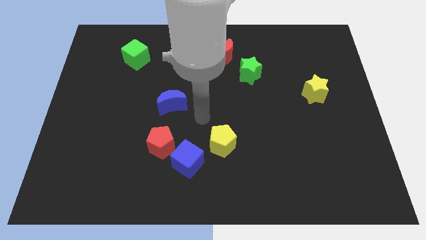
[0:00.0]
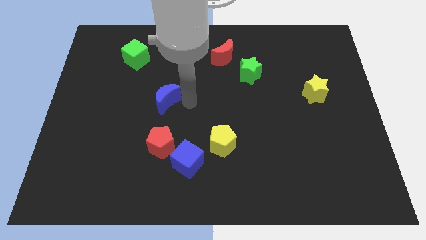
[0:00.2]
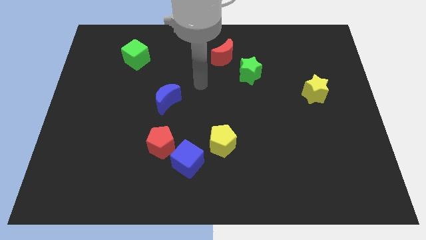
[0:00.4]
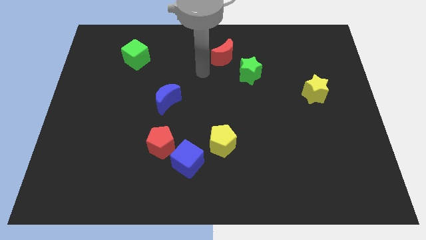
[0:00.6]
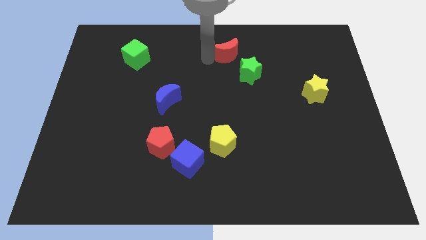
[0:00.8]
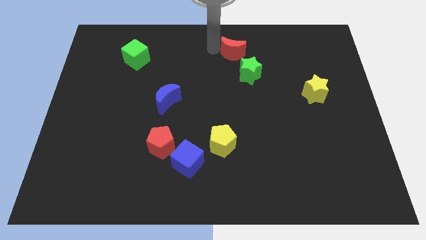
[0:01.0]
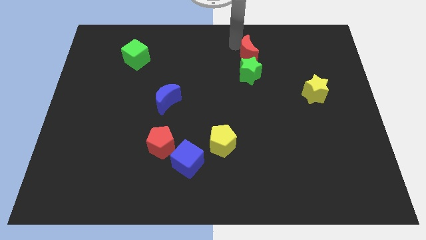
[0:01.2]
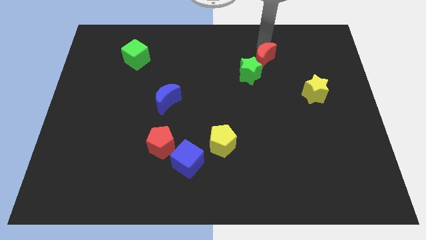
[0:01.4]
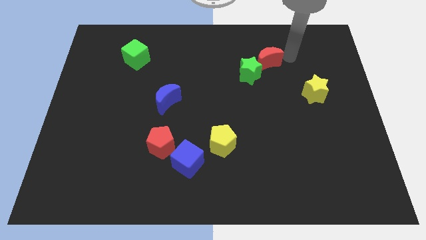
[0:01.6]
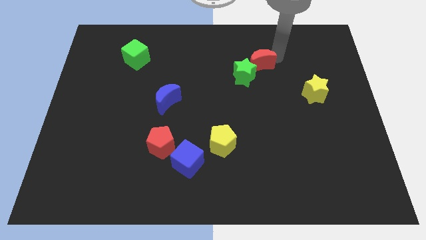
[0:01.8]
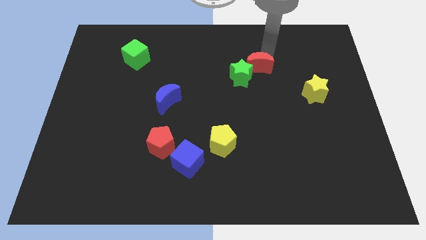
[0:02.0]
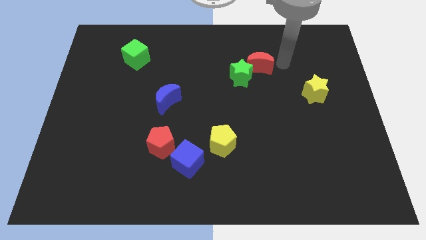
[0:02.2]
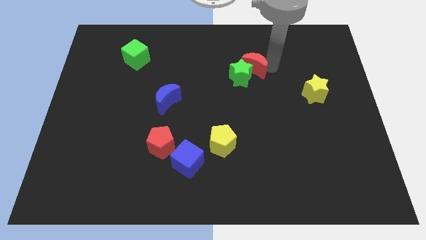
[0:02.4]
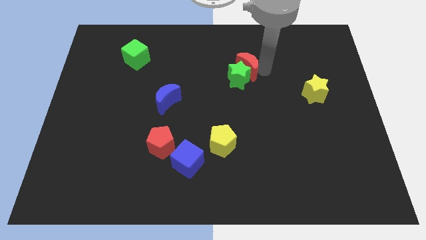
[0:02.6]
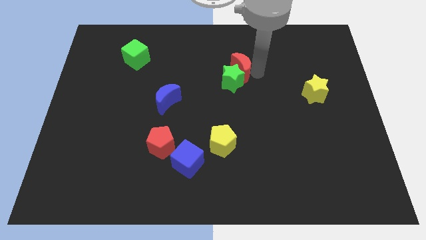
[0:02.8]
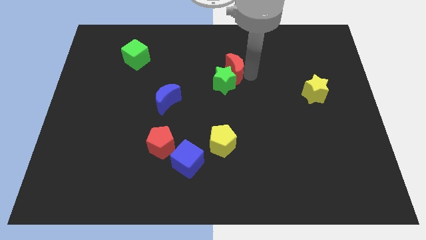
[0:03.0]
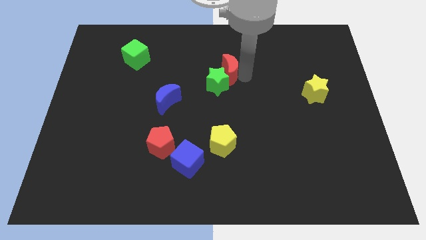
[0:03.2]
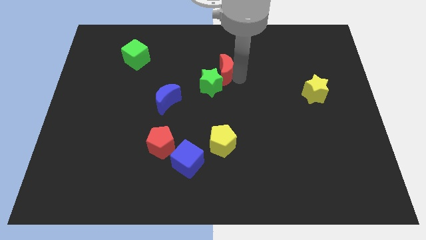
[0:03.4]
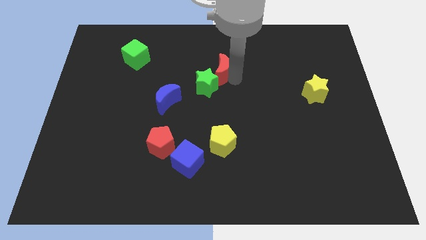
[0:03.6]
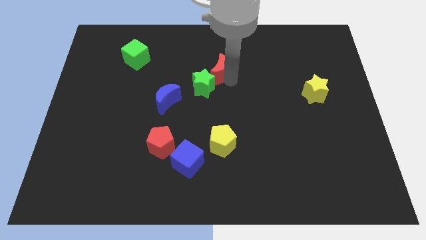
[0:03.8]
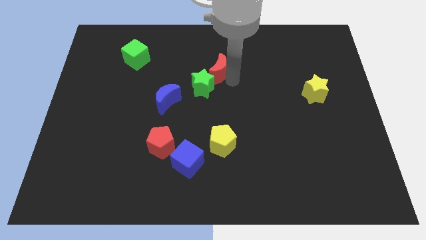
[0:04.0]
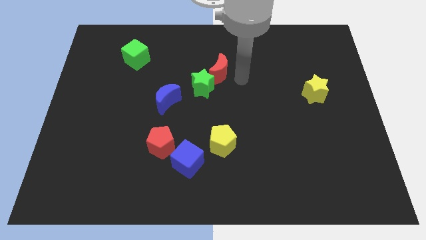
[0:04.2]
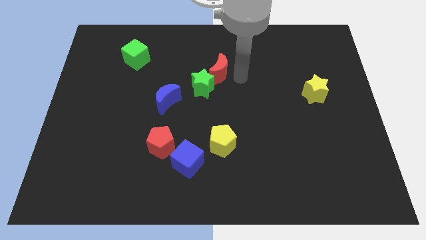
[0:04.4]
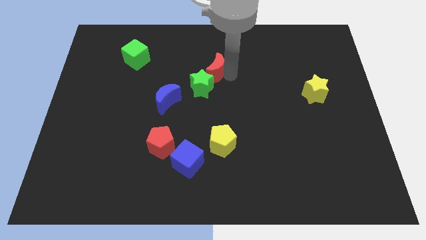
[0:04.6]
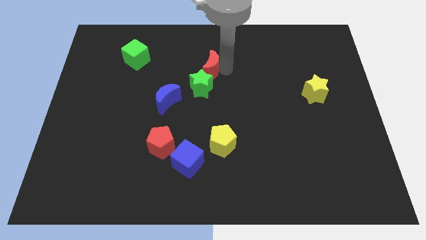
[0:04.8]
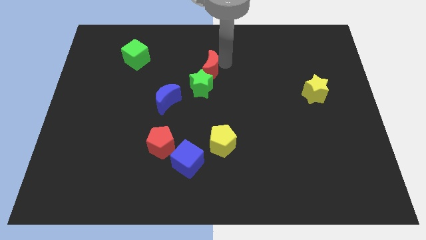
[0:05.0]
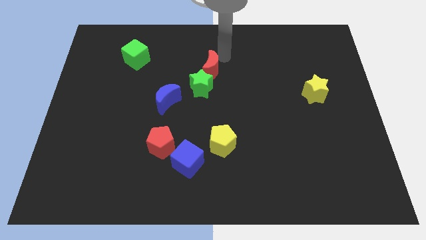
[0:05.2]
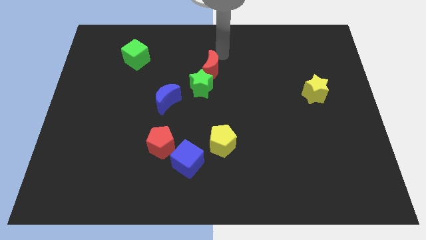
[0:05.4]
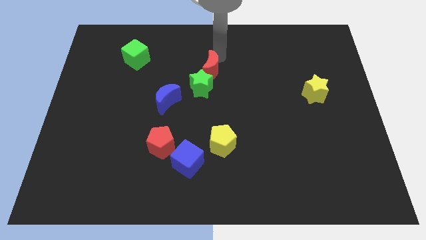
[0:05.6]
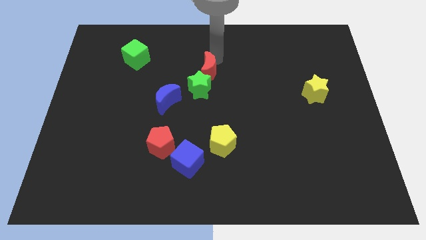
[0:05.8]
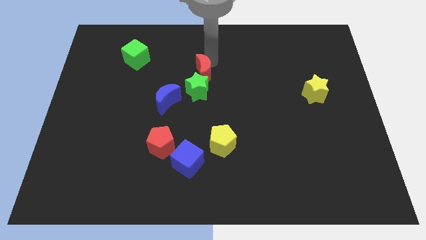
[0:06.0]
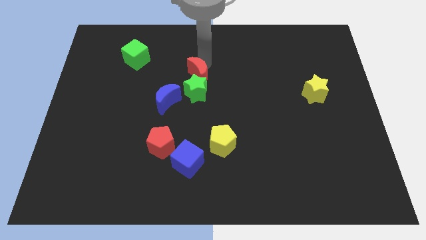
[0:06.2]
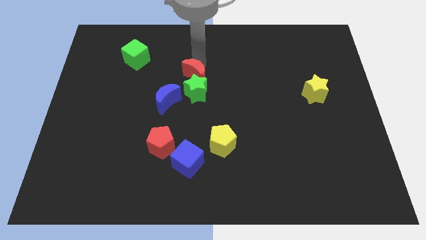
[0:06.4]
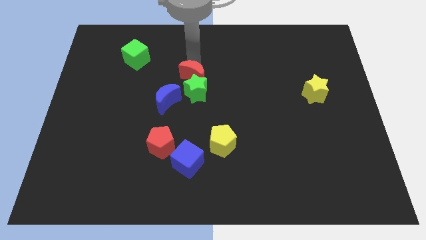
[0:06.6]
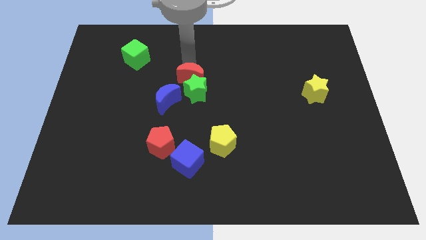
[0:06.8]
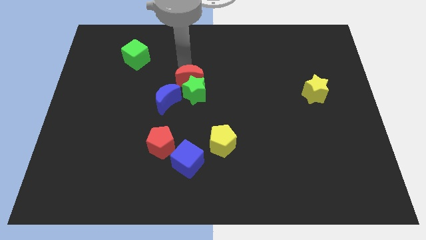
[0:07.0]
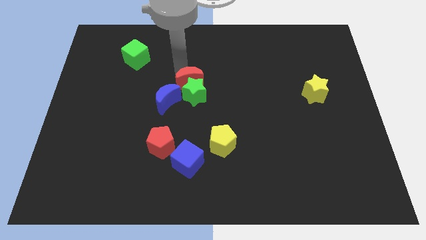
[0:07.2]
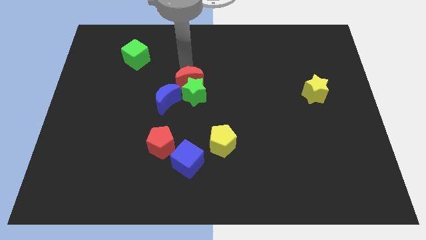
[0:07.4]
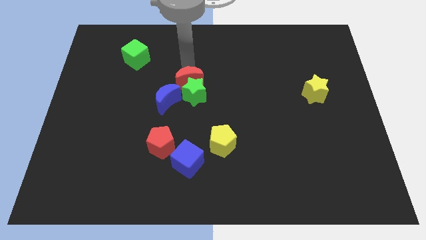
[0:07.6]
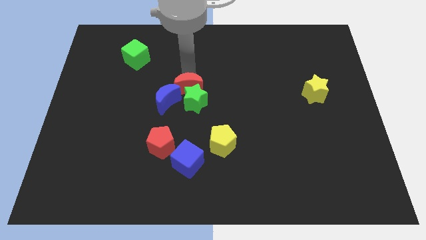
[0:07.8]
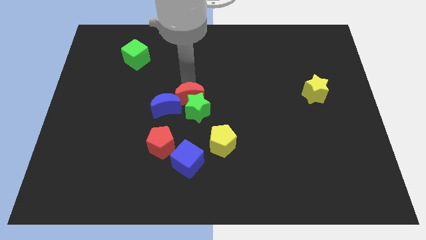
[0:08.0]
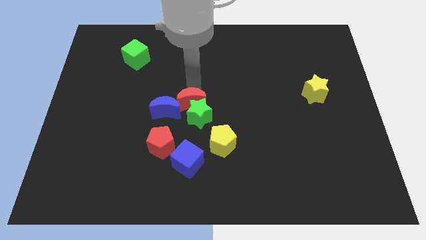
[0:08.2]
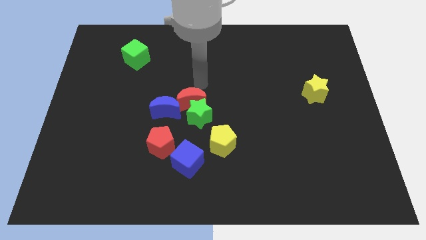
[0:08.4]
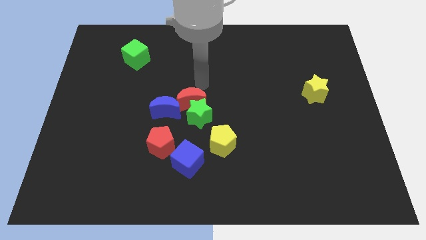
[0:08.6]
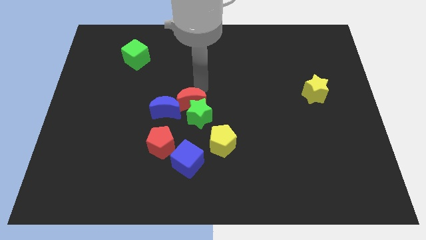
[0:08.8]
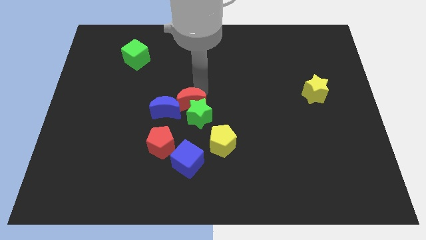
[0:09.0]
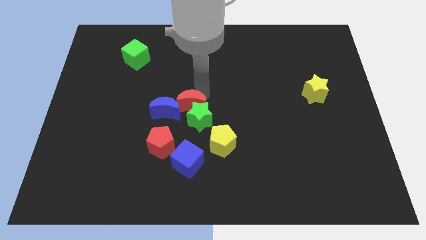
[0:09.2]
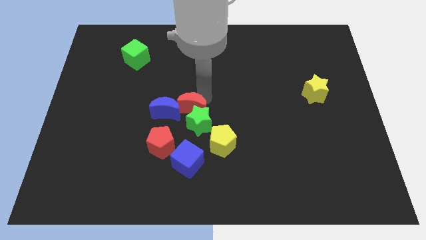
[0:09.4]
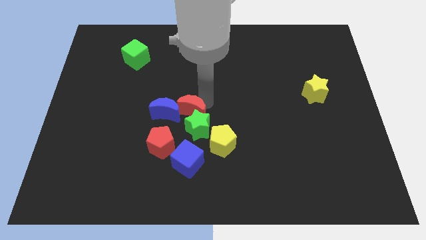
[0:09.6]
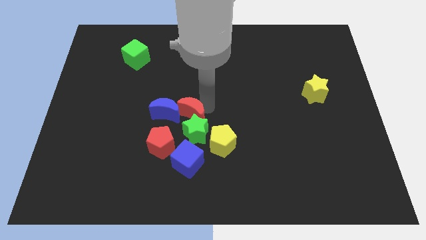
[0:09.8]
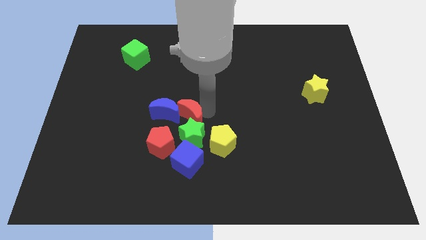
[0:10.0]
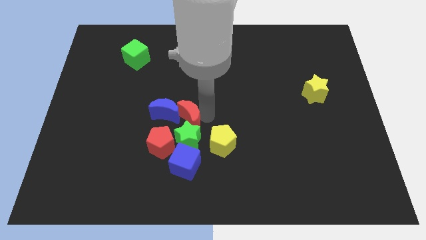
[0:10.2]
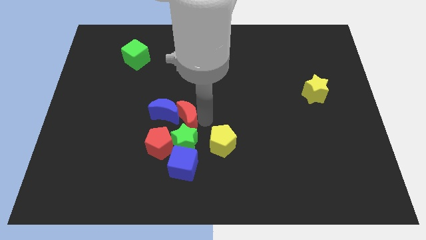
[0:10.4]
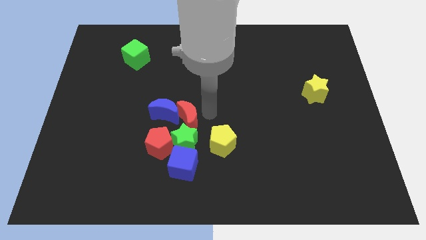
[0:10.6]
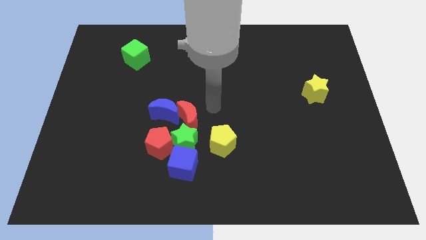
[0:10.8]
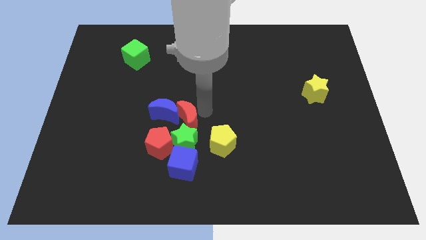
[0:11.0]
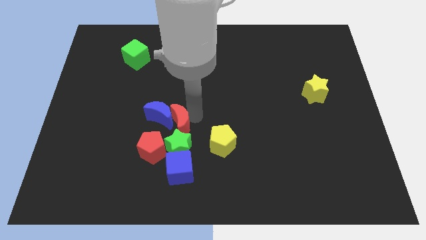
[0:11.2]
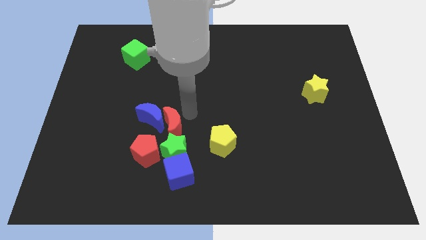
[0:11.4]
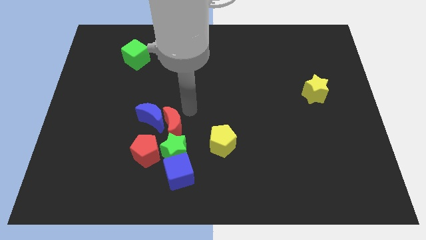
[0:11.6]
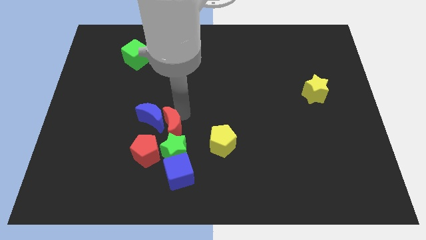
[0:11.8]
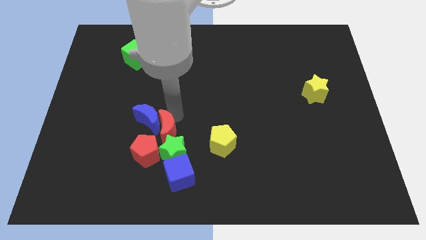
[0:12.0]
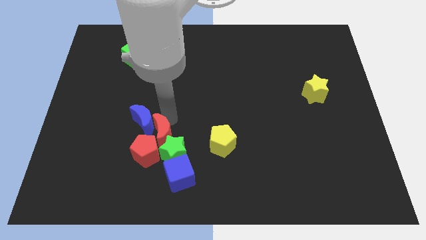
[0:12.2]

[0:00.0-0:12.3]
push the red moon close to the red pentagon

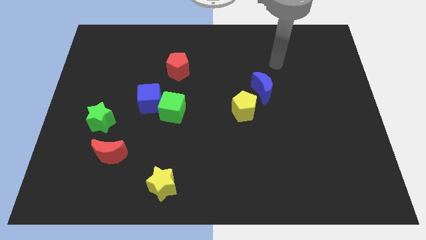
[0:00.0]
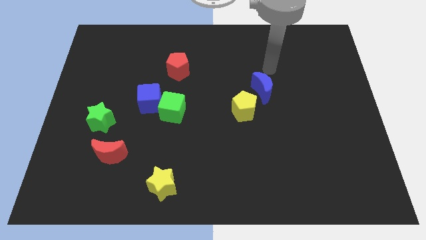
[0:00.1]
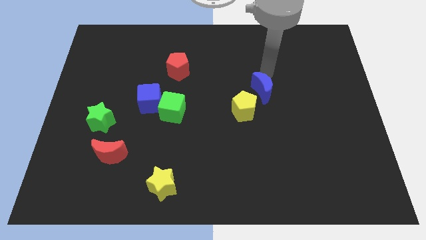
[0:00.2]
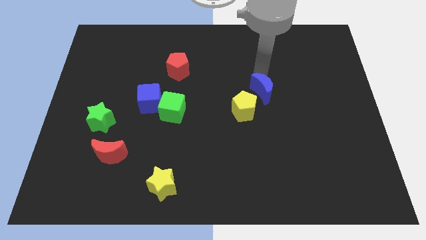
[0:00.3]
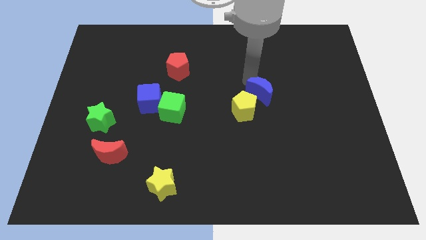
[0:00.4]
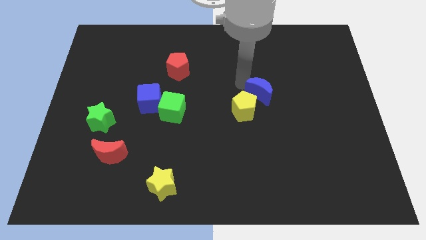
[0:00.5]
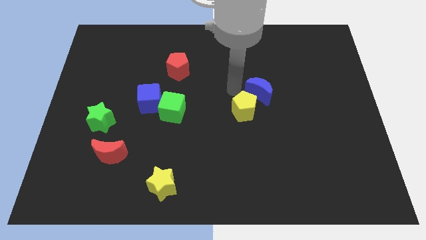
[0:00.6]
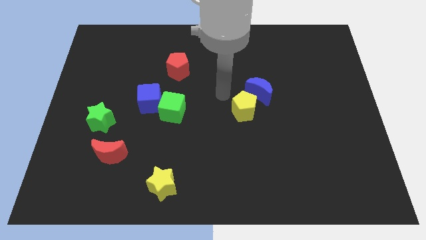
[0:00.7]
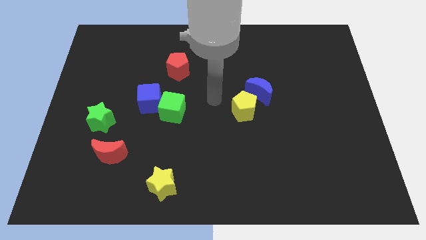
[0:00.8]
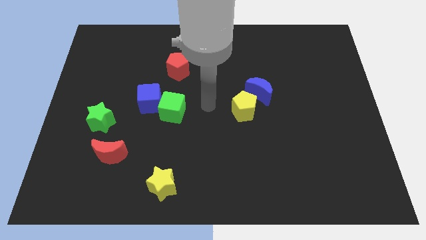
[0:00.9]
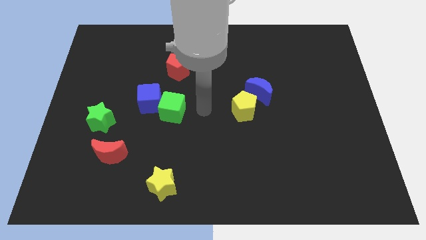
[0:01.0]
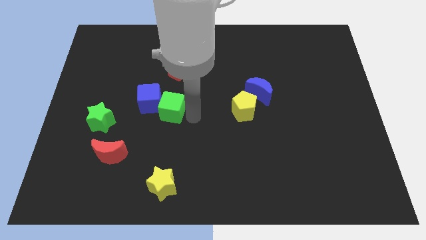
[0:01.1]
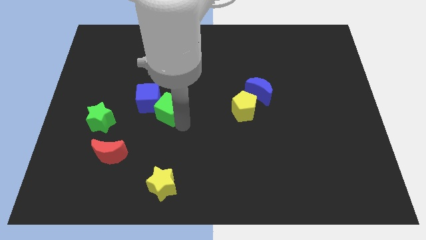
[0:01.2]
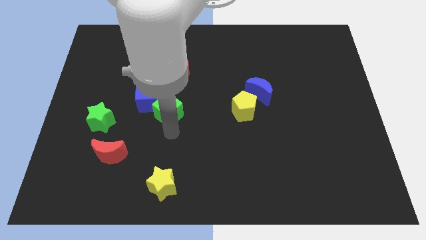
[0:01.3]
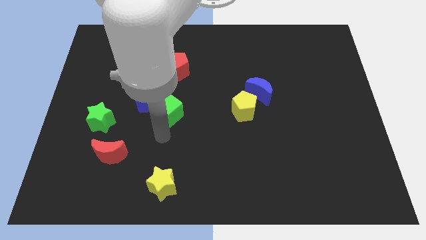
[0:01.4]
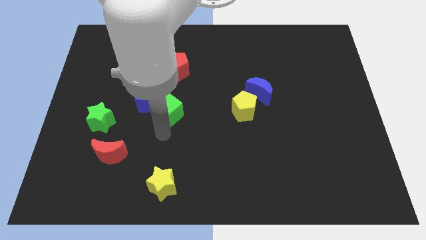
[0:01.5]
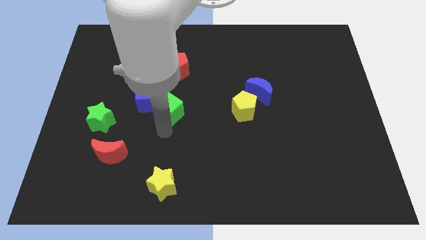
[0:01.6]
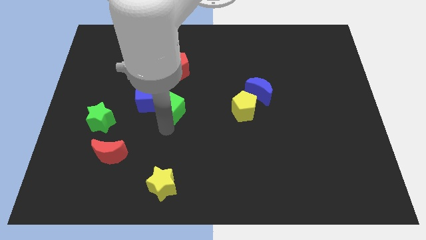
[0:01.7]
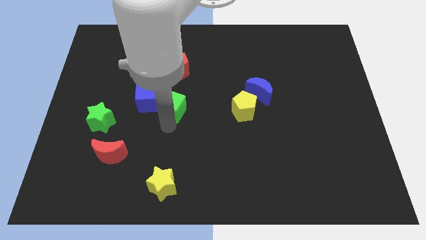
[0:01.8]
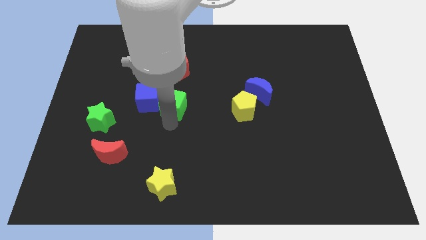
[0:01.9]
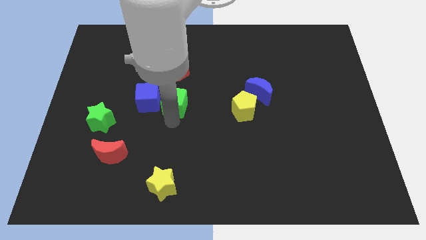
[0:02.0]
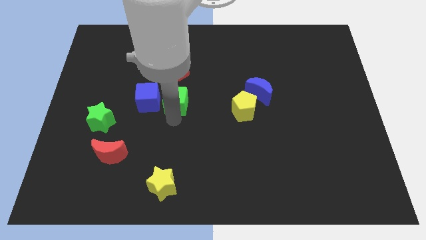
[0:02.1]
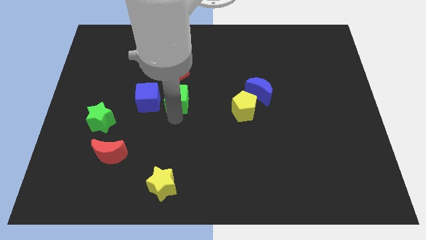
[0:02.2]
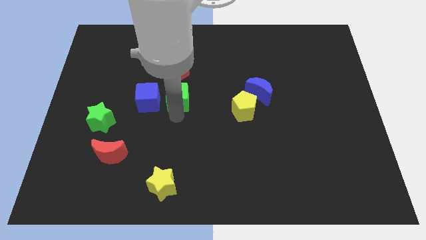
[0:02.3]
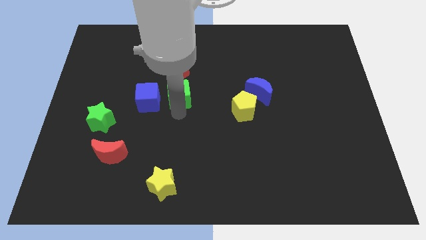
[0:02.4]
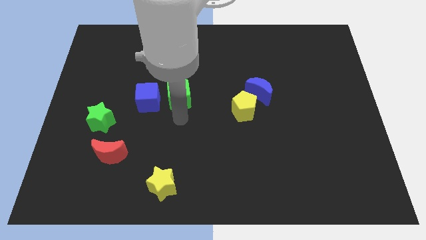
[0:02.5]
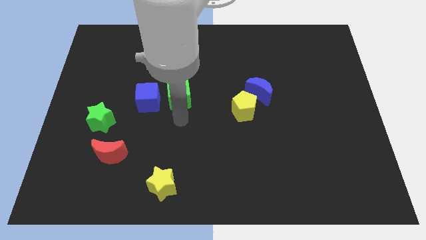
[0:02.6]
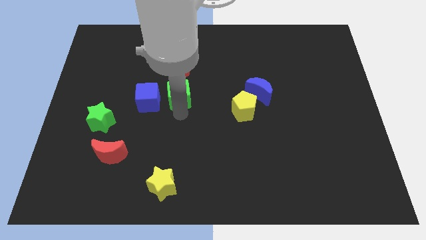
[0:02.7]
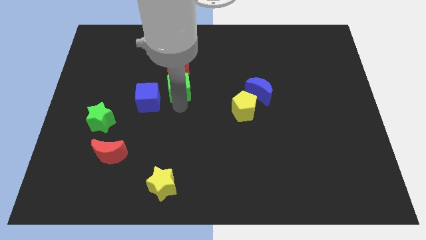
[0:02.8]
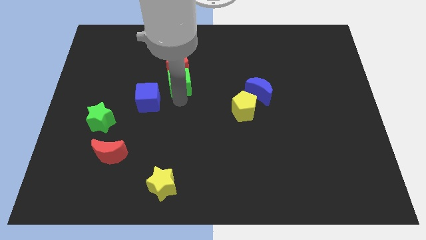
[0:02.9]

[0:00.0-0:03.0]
push the green cube next to the red pentagon
